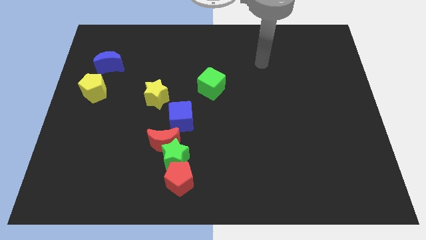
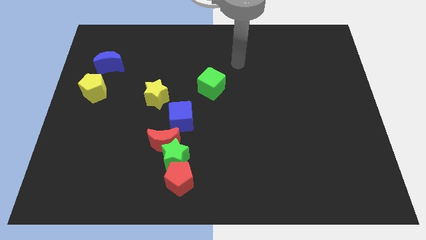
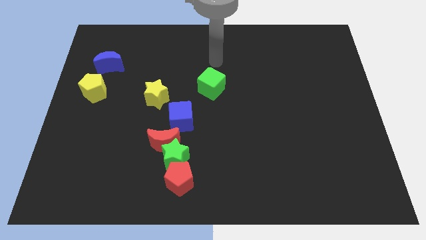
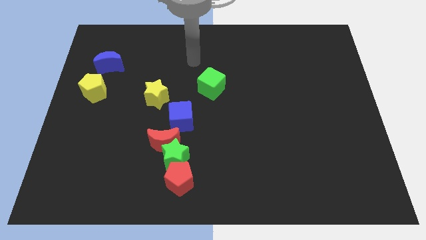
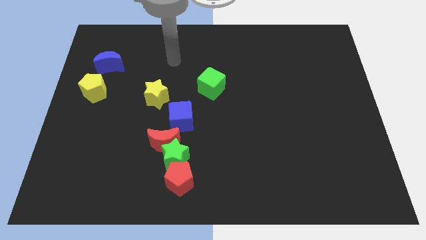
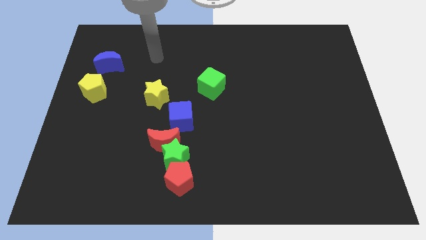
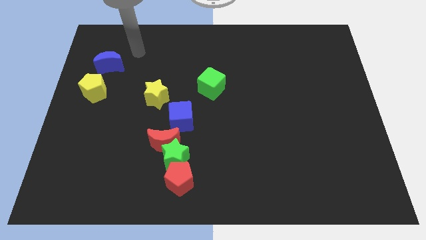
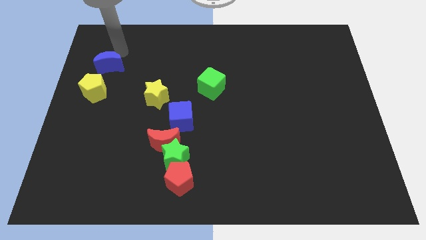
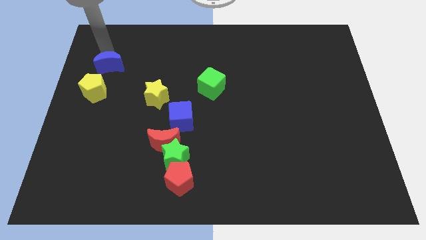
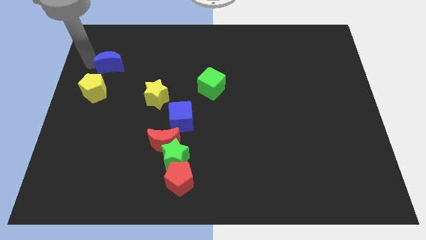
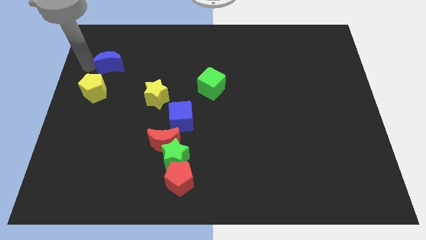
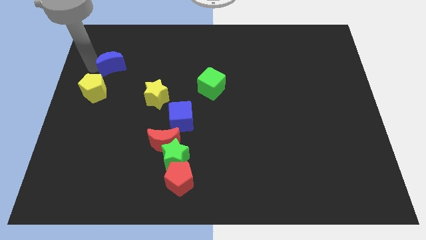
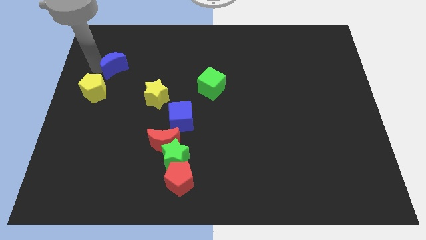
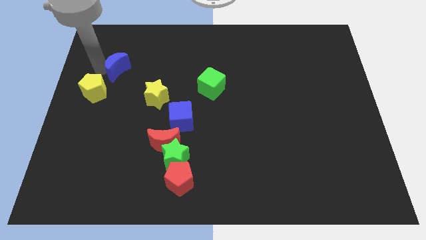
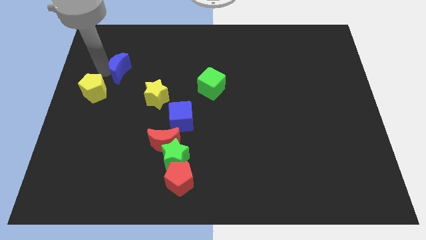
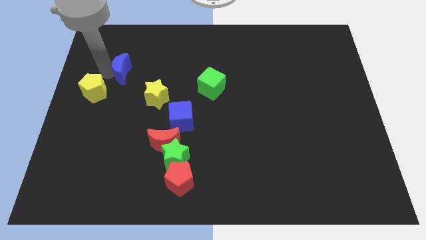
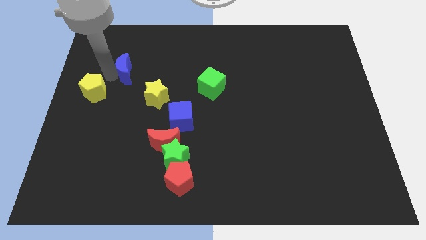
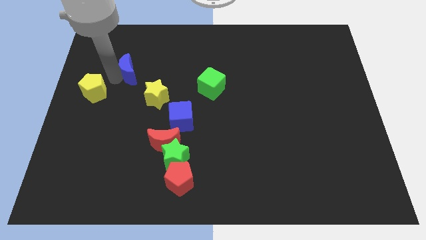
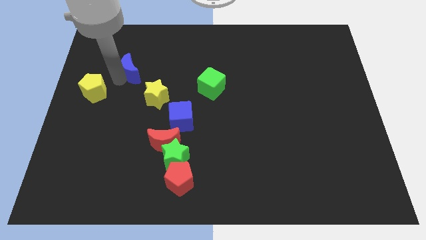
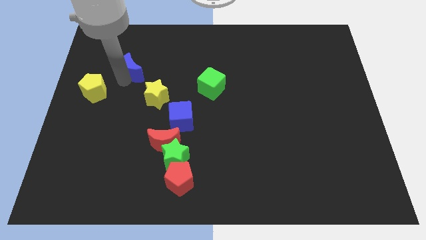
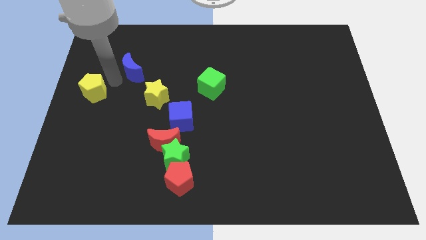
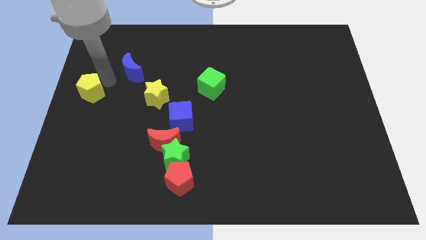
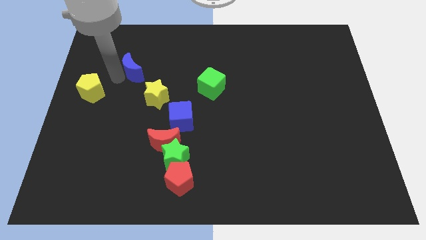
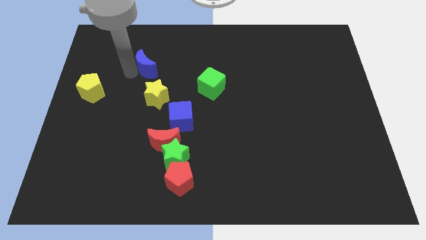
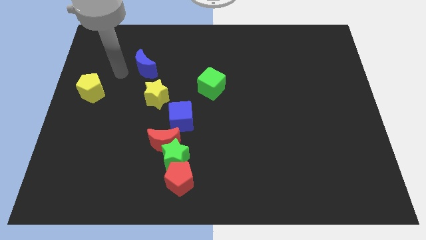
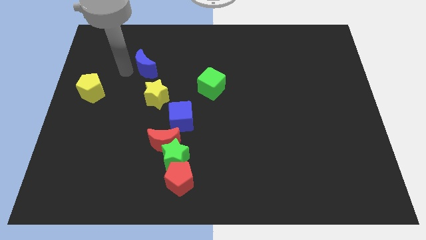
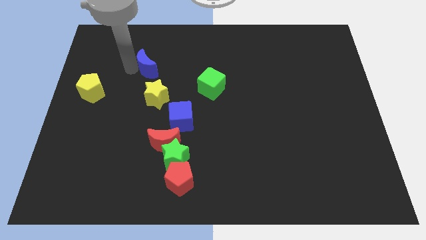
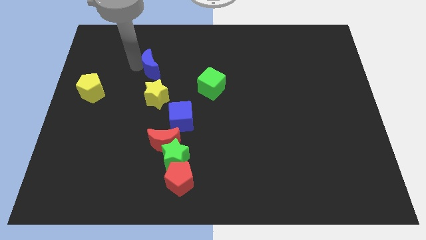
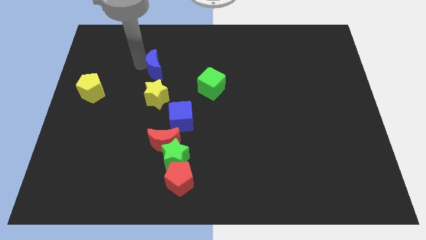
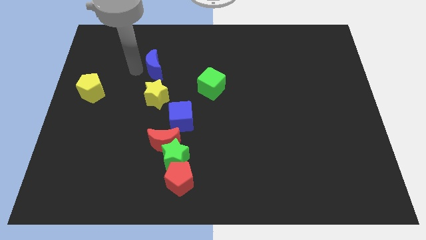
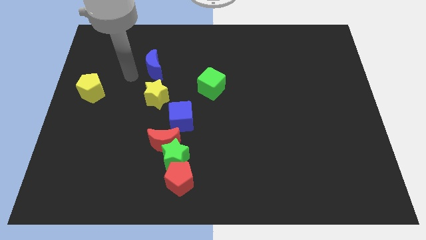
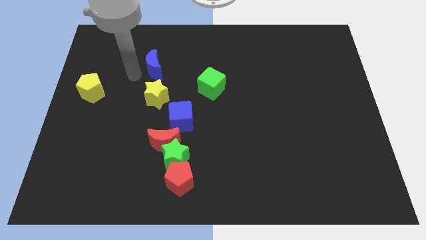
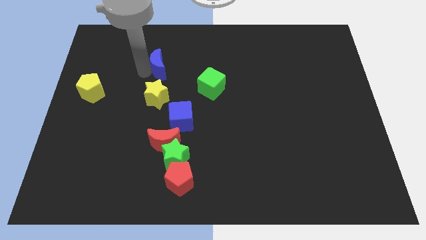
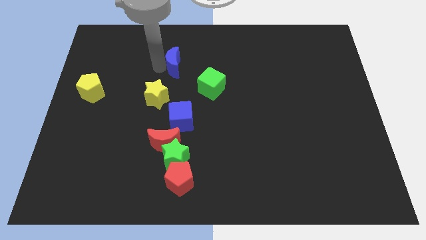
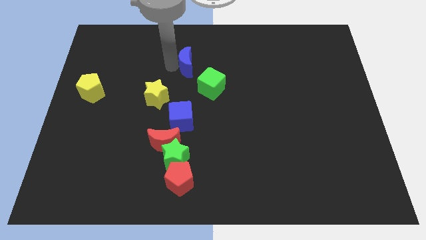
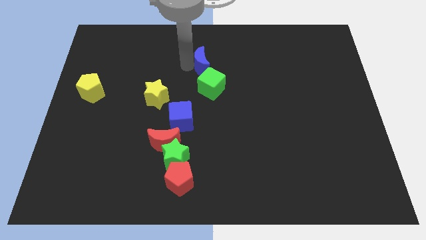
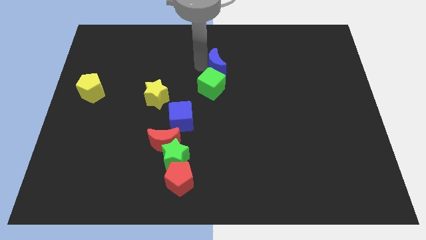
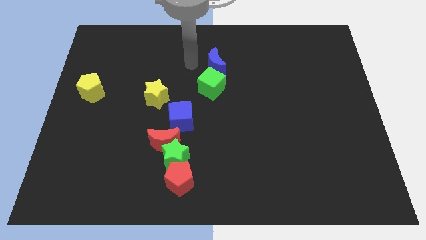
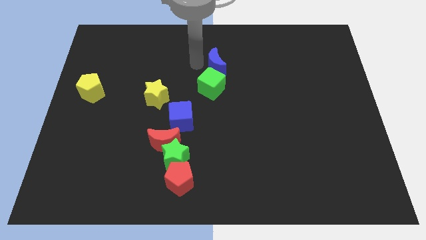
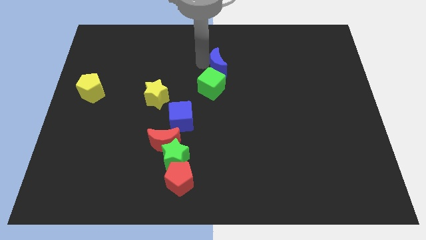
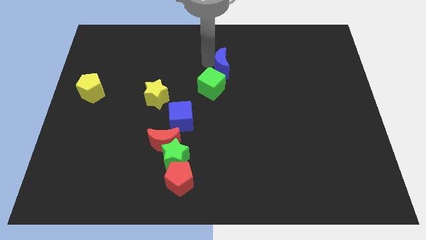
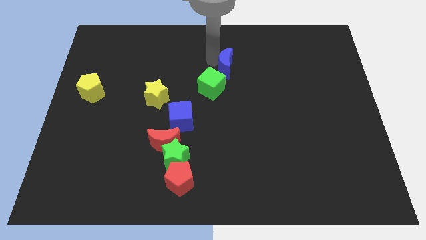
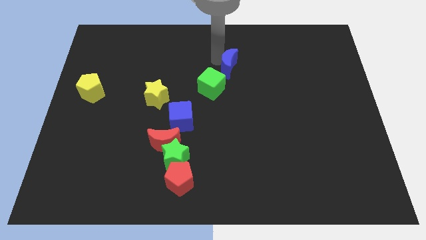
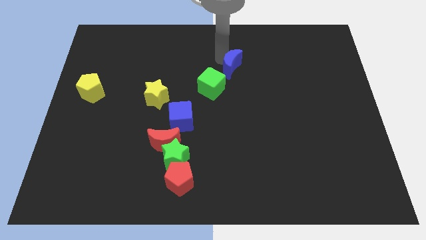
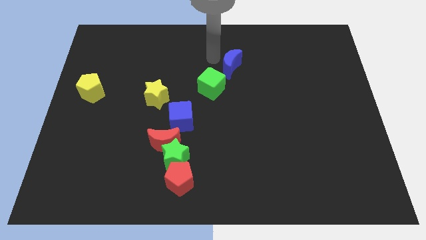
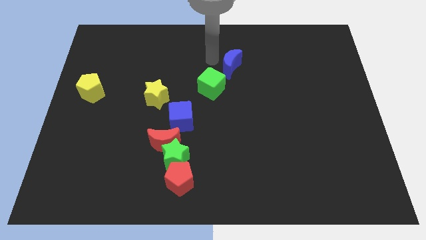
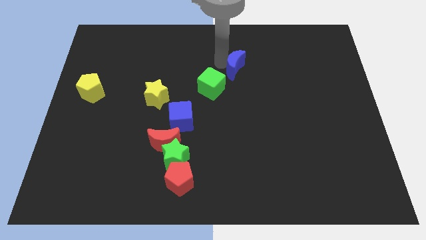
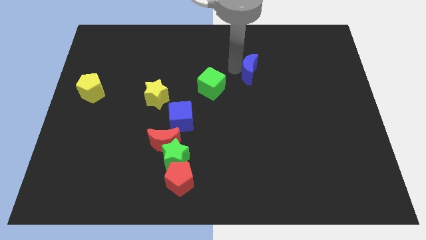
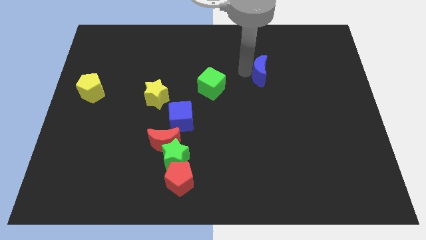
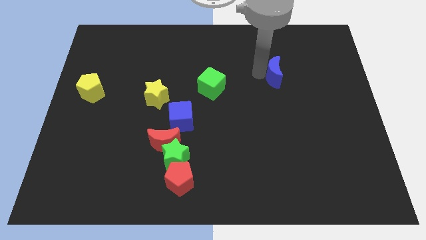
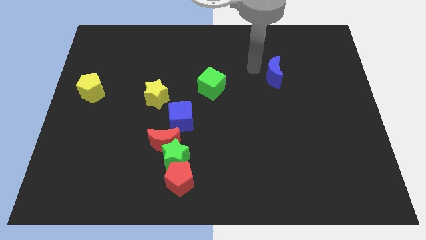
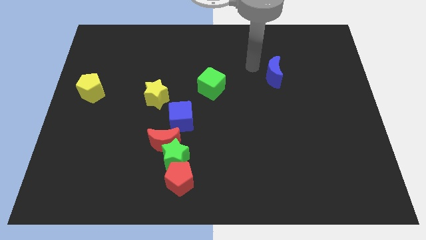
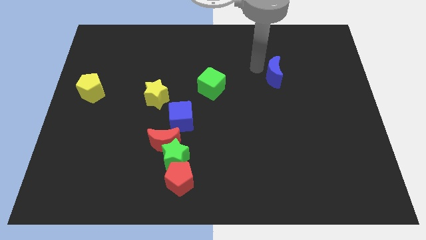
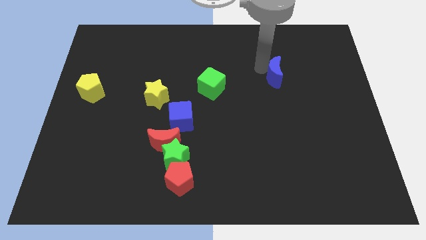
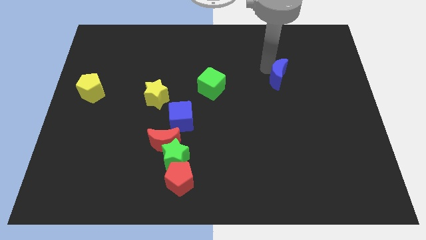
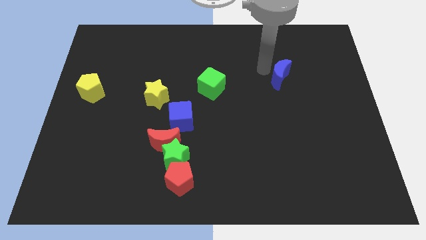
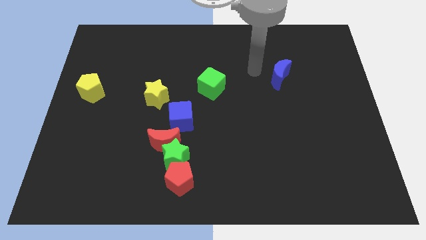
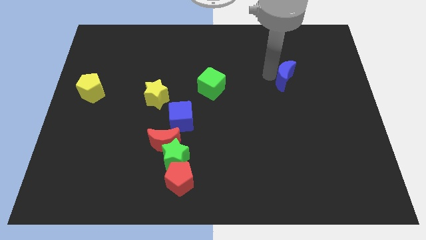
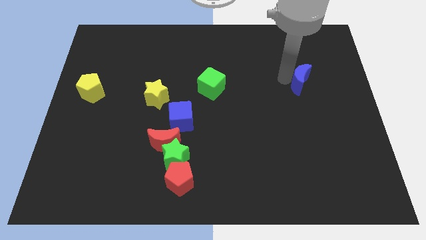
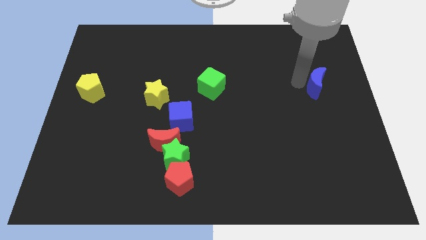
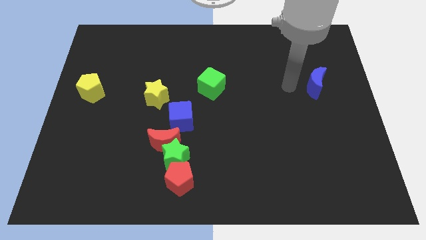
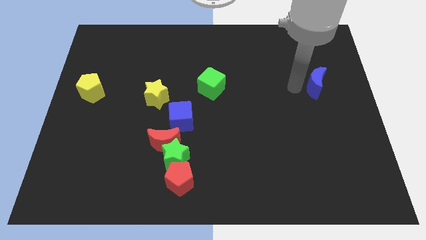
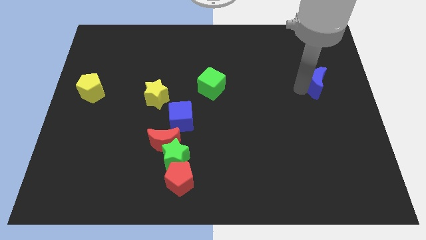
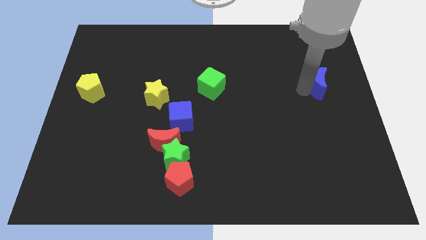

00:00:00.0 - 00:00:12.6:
slide the blue moon to the right side of the board

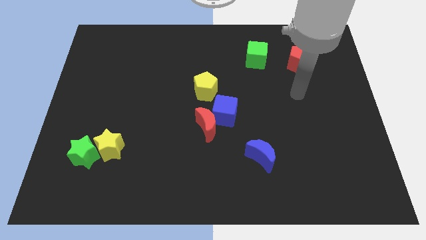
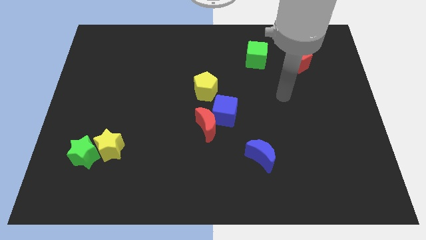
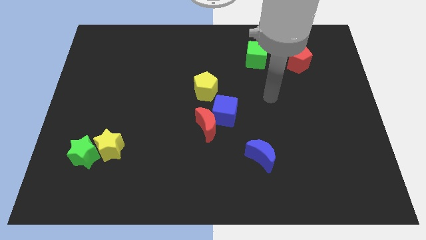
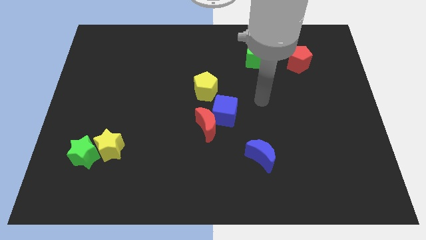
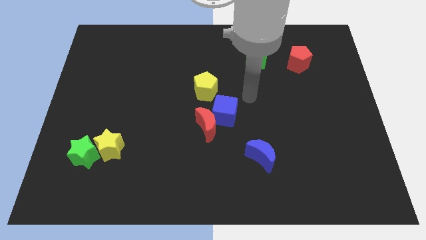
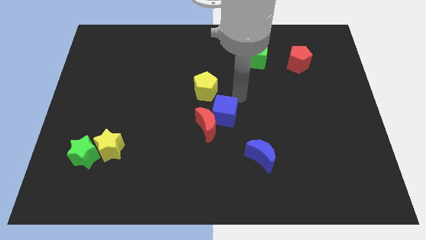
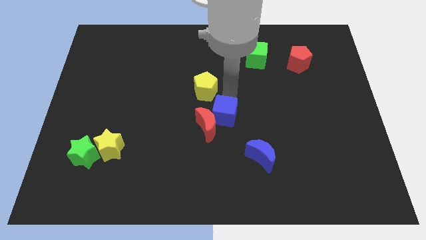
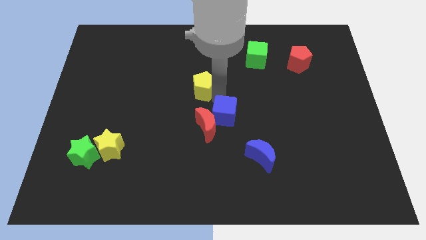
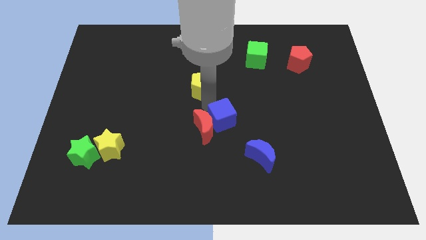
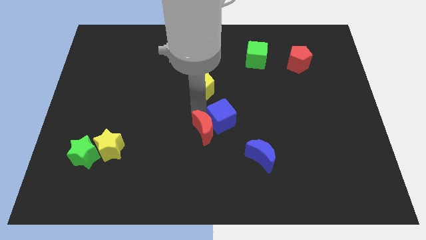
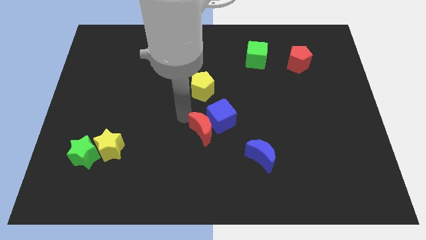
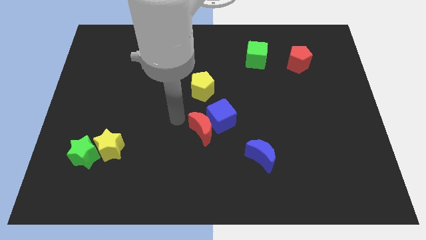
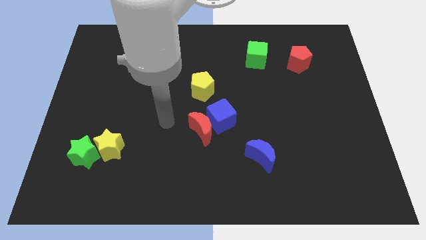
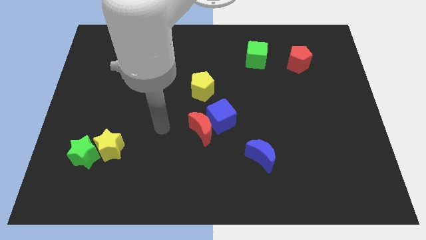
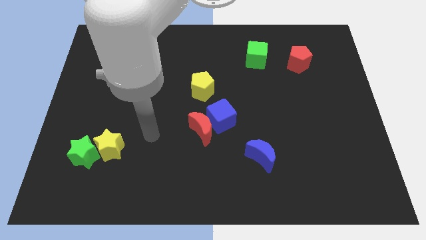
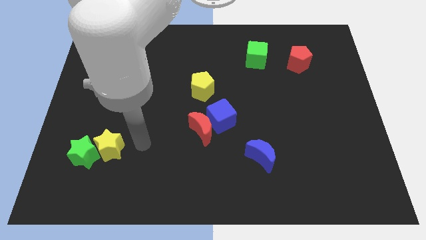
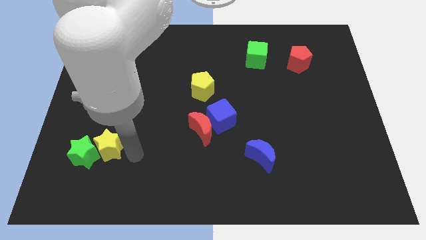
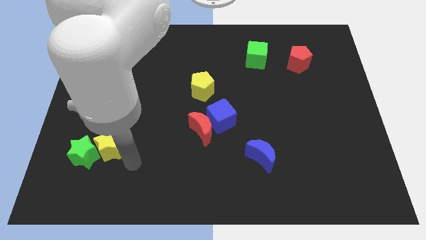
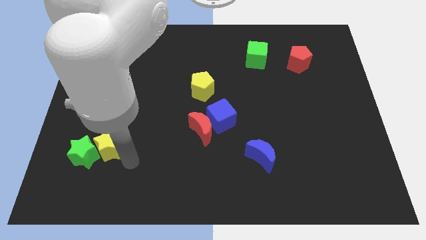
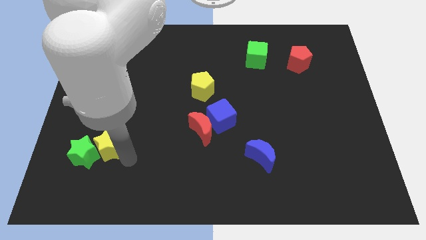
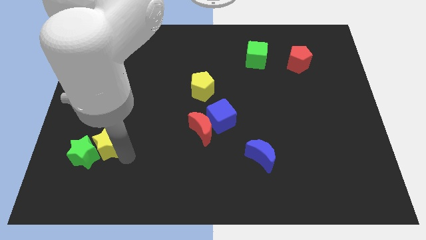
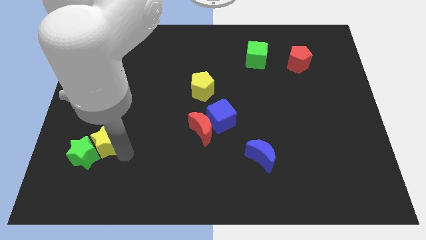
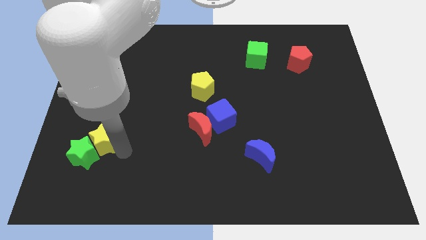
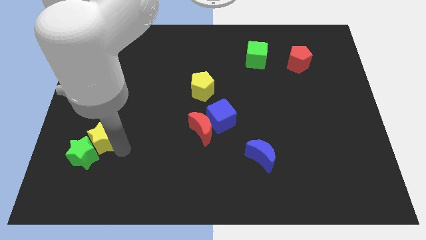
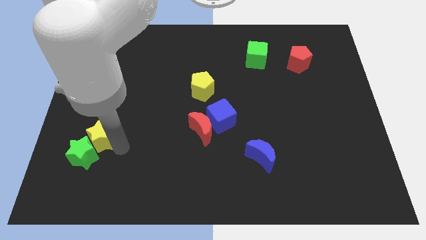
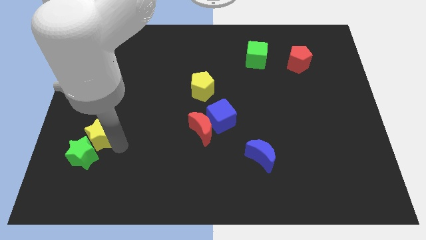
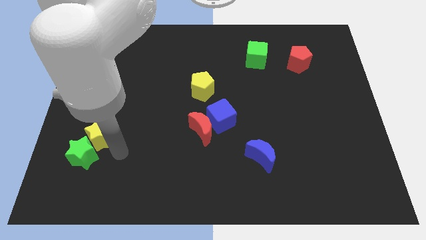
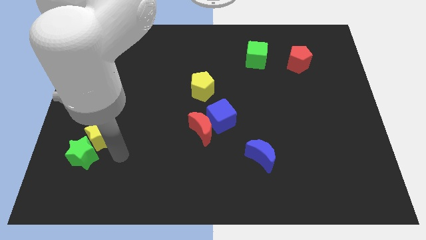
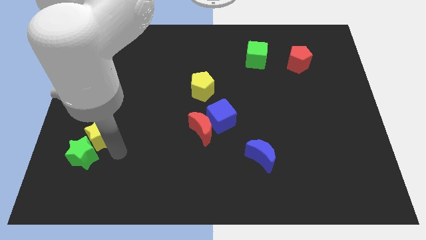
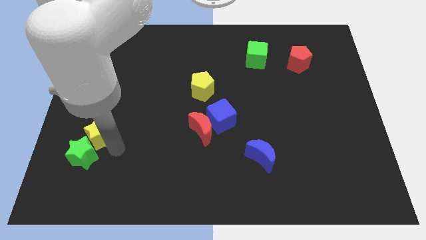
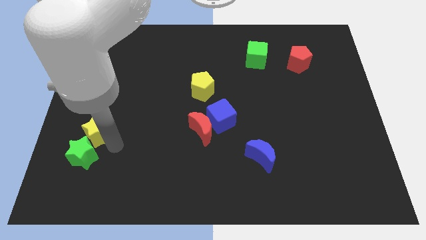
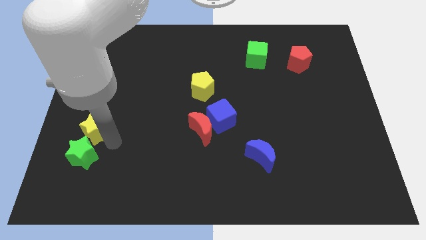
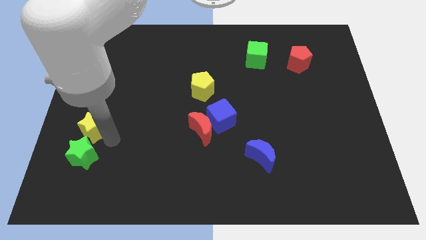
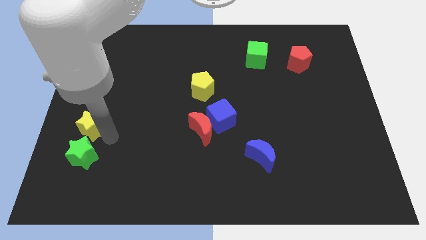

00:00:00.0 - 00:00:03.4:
slide the yellow star to the left side
